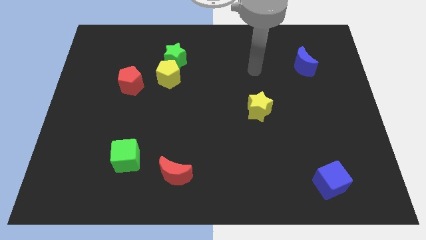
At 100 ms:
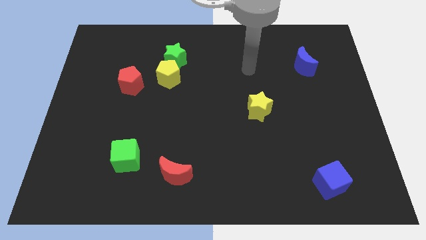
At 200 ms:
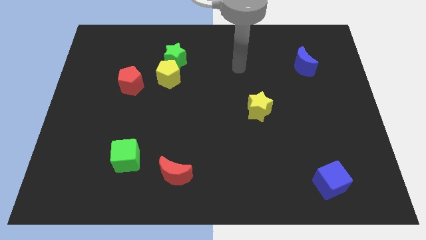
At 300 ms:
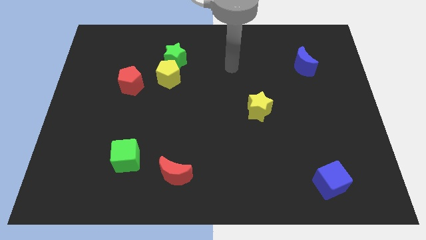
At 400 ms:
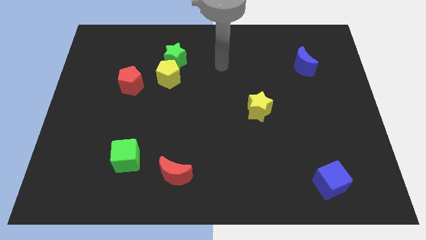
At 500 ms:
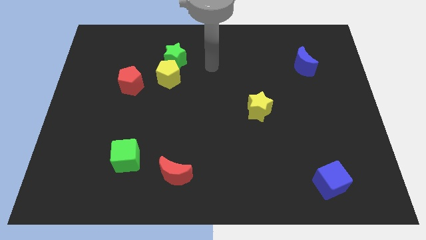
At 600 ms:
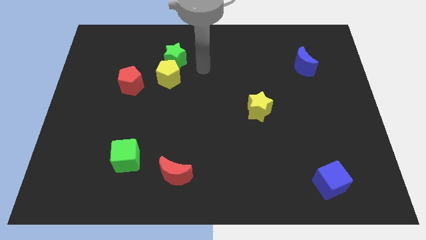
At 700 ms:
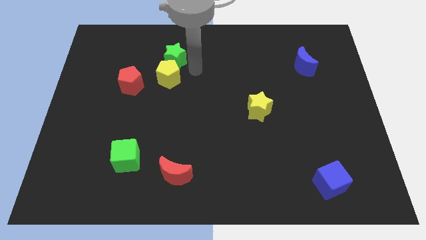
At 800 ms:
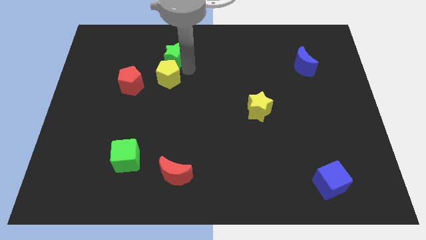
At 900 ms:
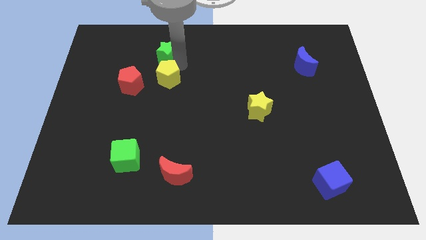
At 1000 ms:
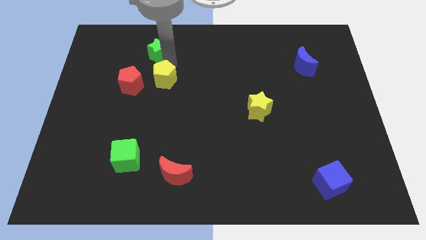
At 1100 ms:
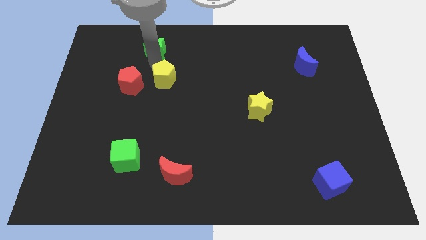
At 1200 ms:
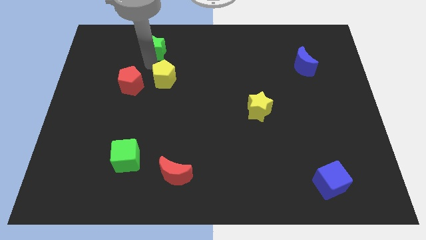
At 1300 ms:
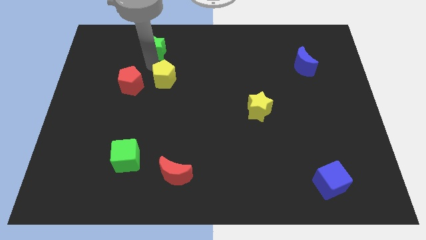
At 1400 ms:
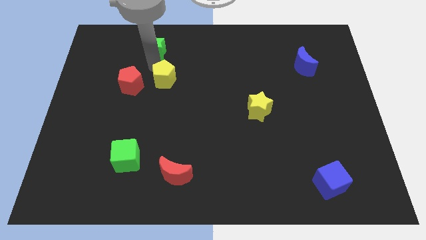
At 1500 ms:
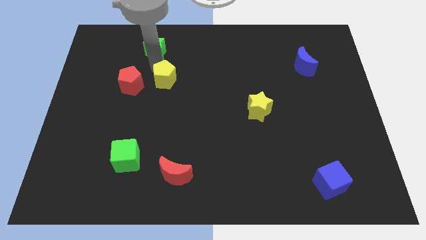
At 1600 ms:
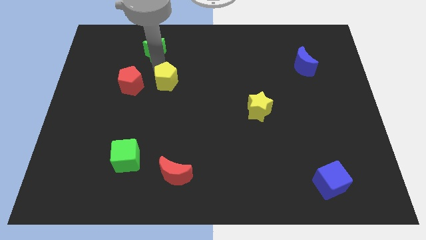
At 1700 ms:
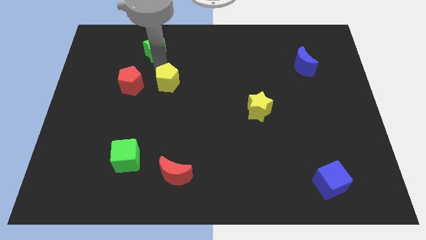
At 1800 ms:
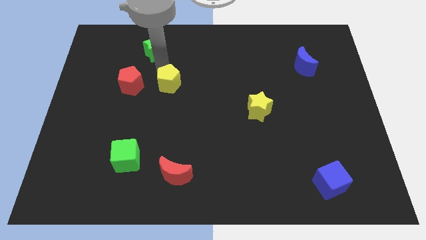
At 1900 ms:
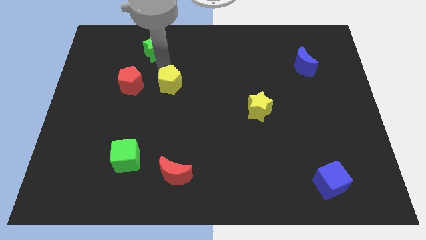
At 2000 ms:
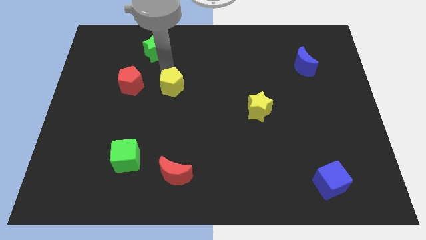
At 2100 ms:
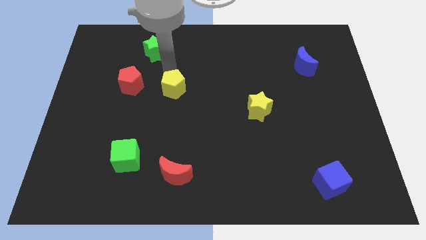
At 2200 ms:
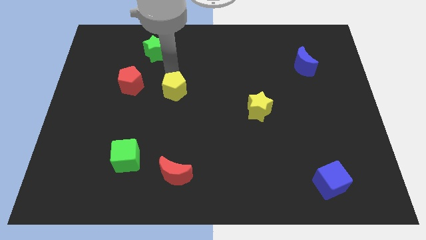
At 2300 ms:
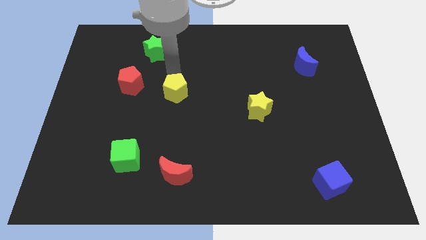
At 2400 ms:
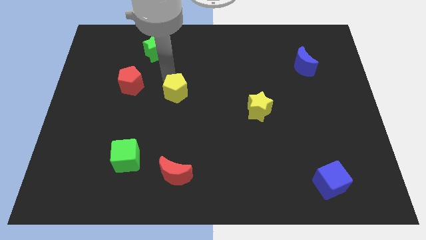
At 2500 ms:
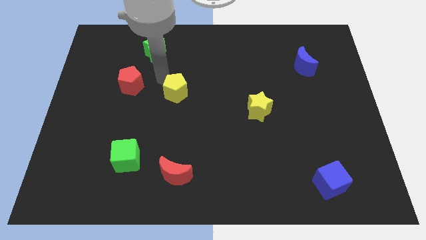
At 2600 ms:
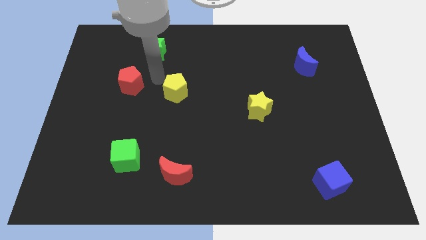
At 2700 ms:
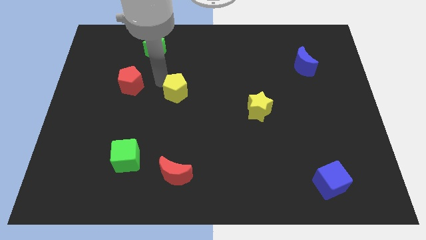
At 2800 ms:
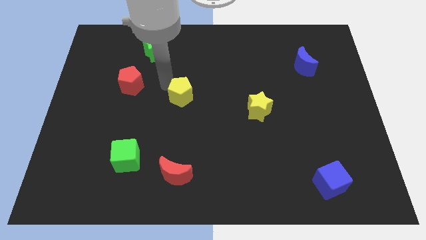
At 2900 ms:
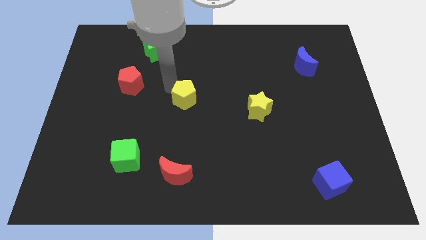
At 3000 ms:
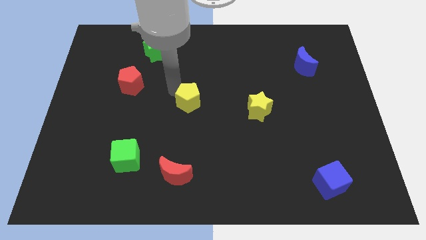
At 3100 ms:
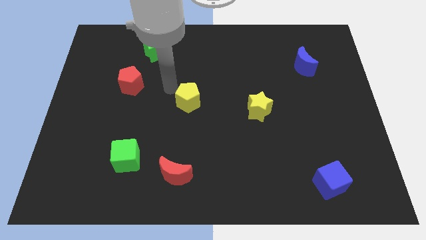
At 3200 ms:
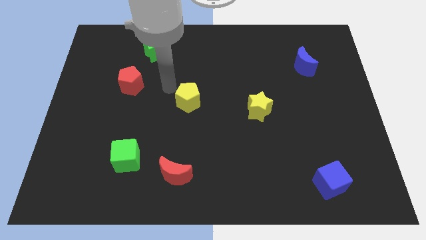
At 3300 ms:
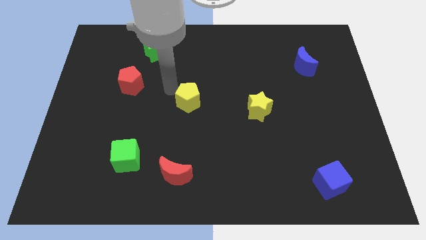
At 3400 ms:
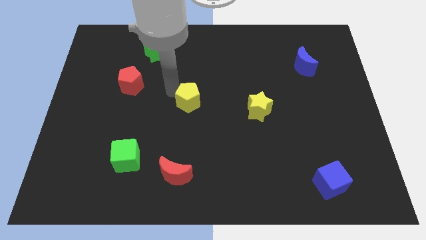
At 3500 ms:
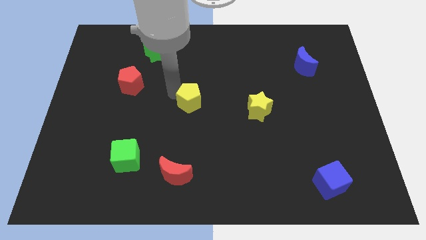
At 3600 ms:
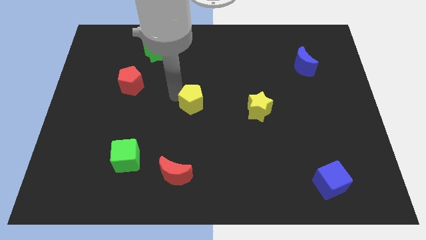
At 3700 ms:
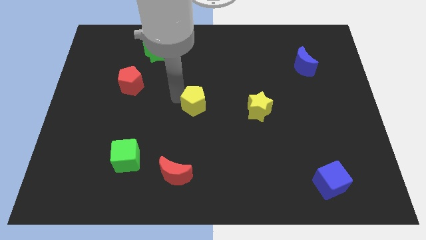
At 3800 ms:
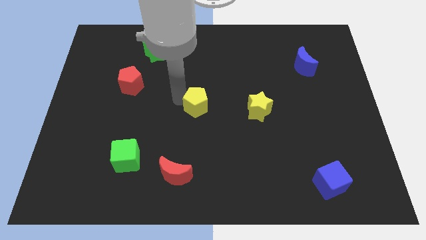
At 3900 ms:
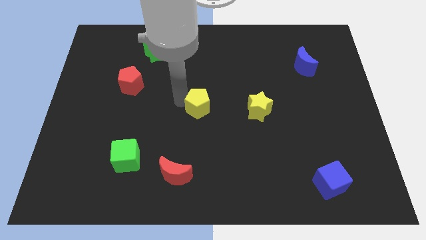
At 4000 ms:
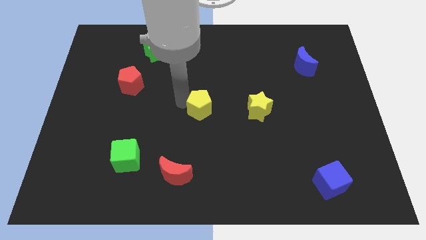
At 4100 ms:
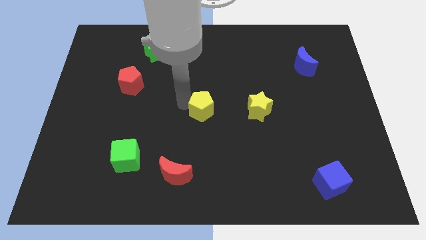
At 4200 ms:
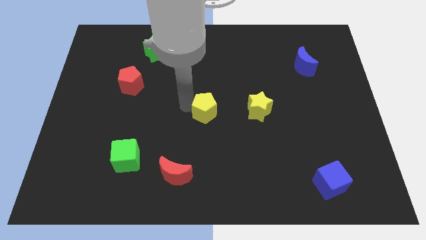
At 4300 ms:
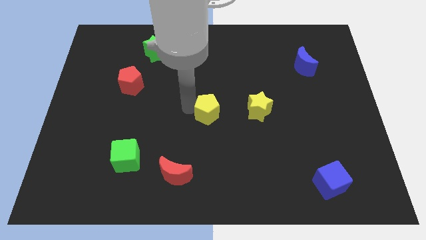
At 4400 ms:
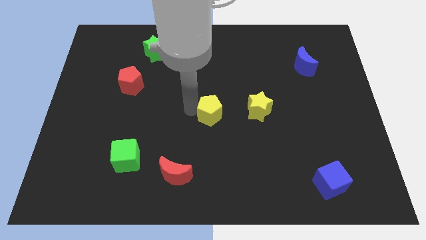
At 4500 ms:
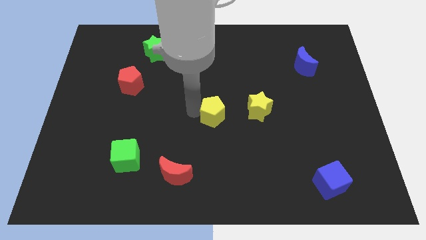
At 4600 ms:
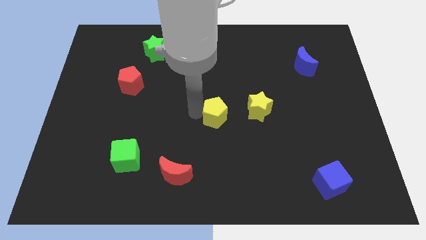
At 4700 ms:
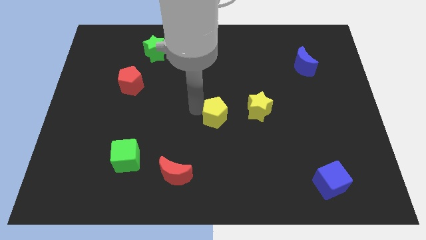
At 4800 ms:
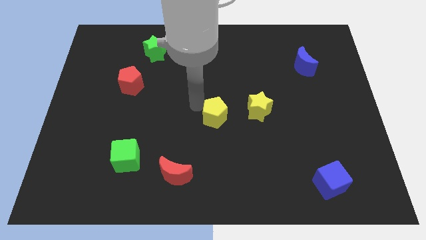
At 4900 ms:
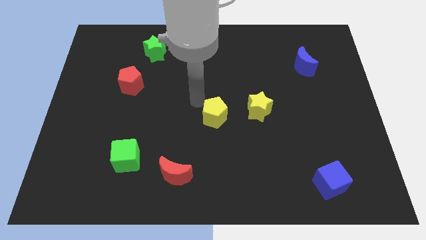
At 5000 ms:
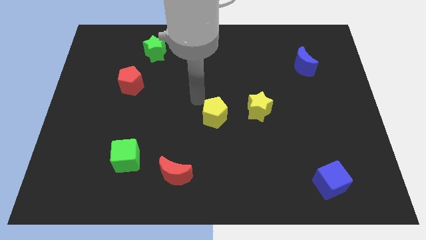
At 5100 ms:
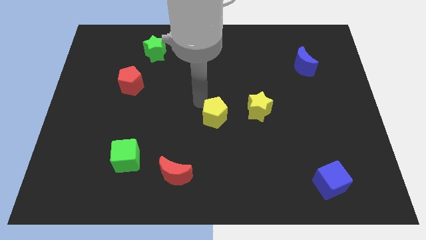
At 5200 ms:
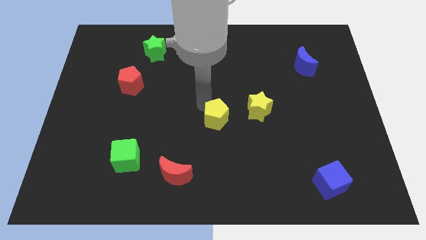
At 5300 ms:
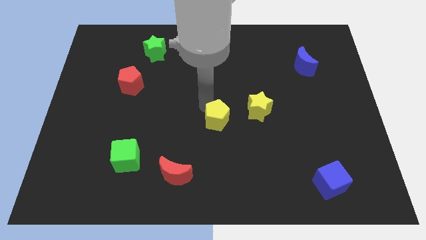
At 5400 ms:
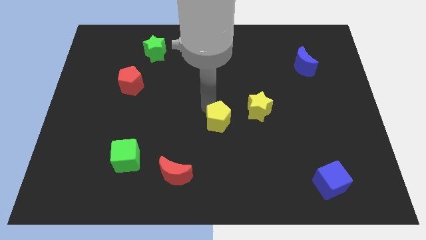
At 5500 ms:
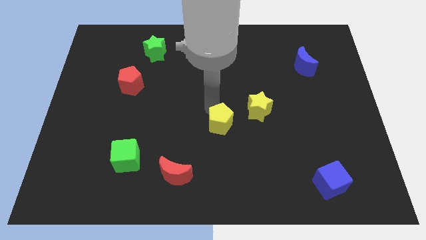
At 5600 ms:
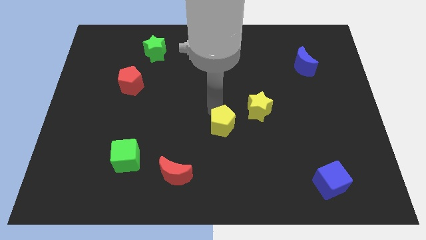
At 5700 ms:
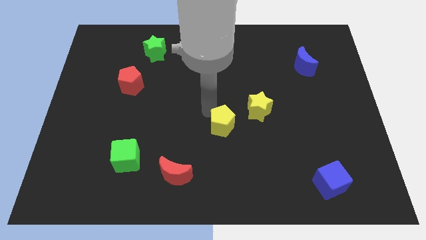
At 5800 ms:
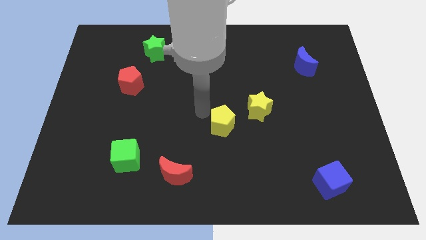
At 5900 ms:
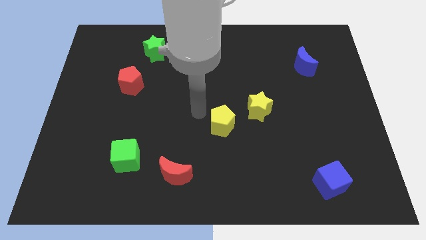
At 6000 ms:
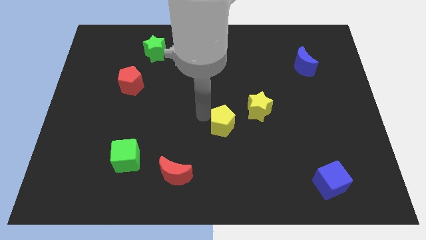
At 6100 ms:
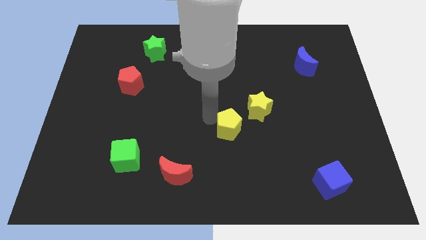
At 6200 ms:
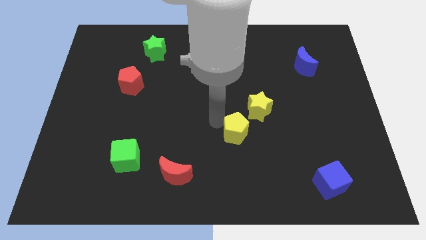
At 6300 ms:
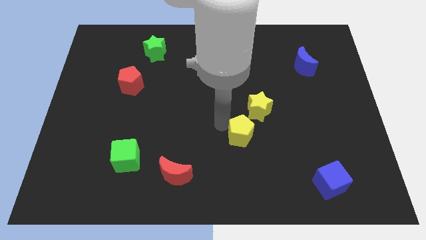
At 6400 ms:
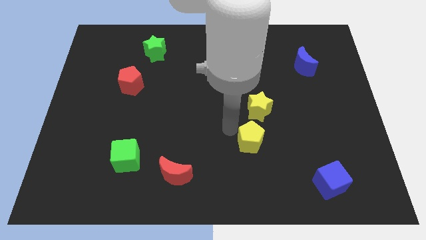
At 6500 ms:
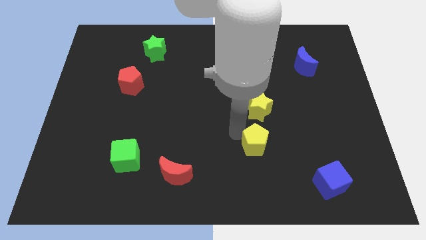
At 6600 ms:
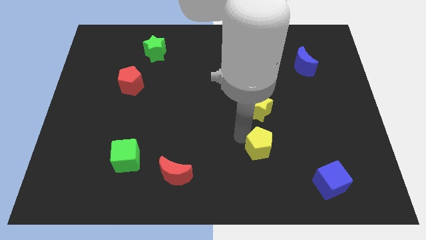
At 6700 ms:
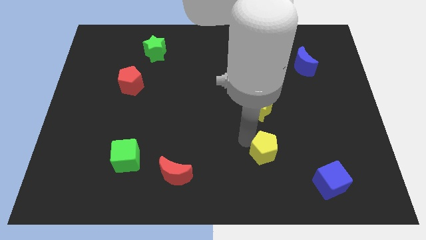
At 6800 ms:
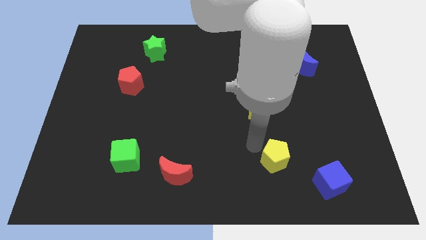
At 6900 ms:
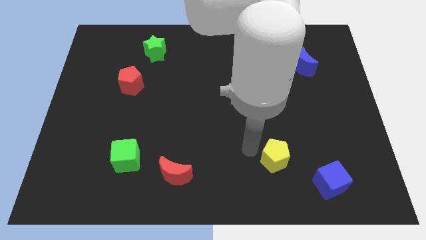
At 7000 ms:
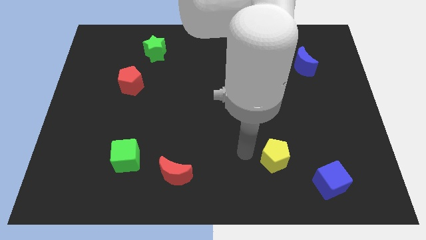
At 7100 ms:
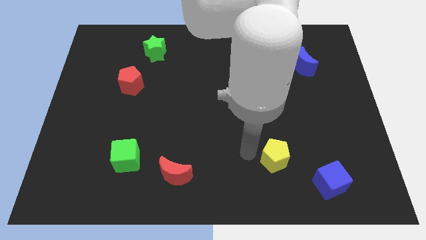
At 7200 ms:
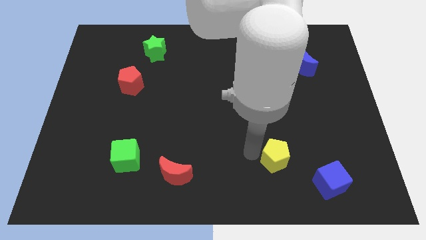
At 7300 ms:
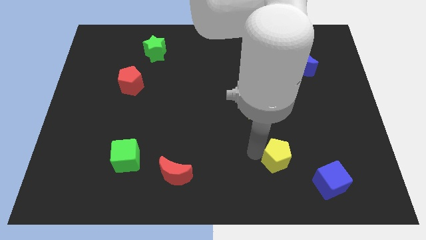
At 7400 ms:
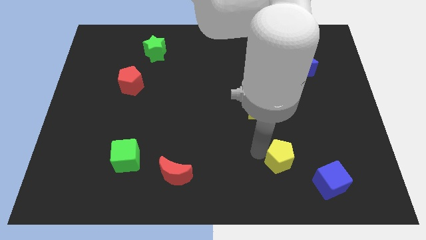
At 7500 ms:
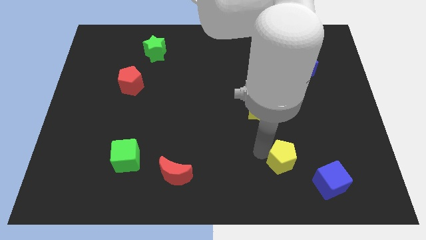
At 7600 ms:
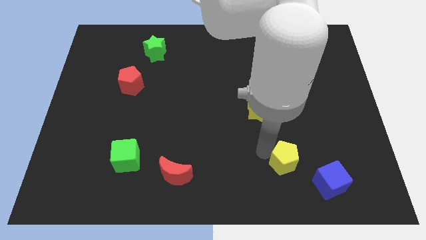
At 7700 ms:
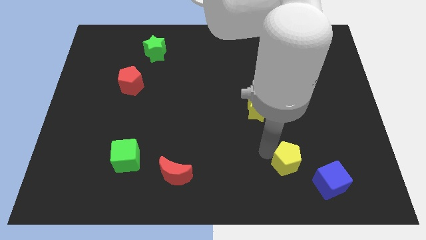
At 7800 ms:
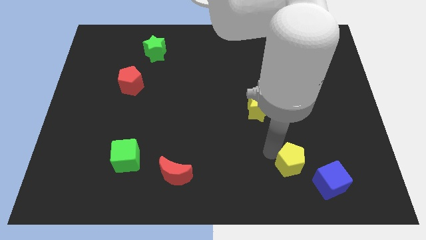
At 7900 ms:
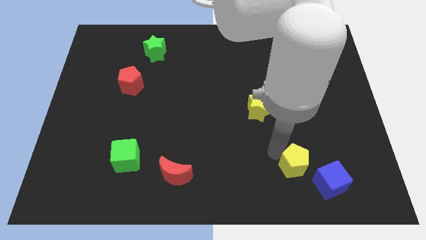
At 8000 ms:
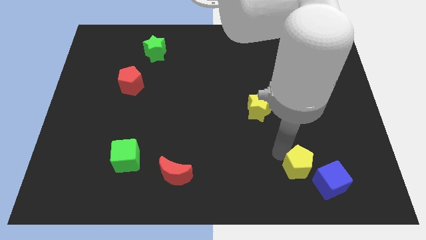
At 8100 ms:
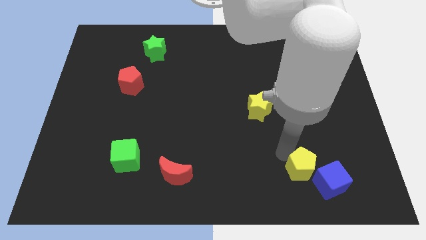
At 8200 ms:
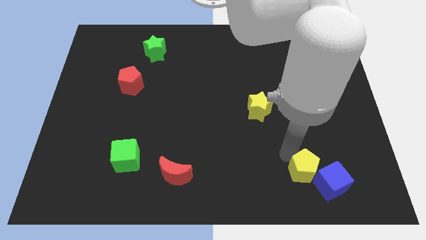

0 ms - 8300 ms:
put the yellow pentagon next to the blue cube
